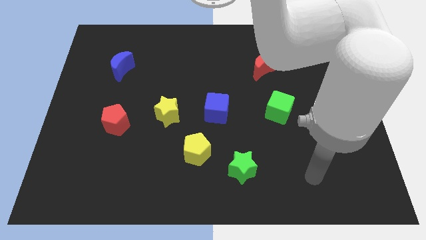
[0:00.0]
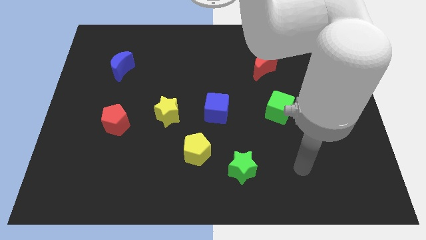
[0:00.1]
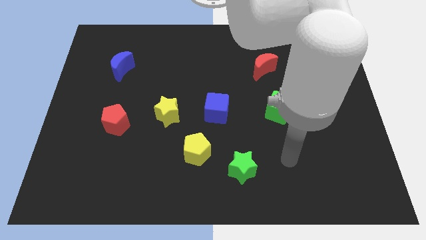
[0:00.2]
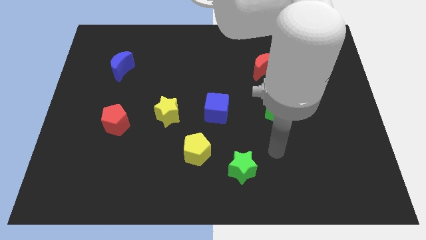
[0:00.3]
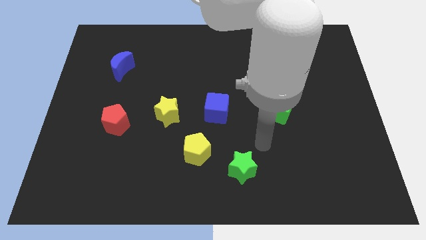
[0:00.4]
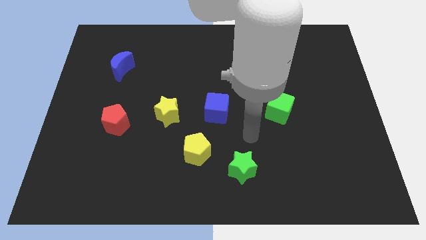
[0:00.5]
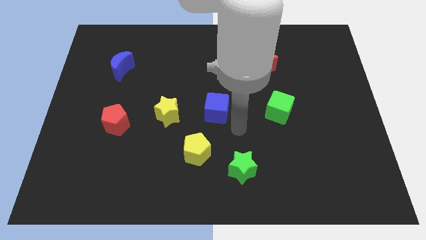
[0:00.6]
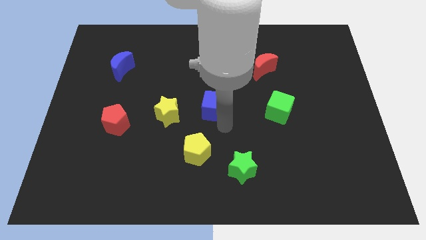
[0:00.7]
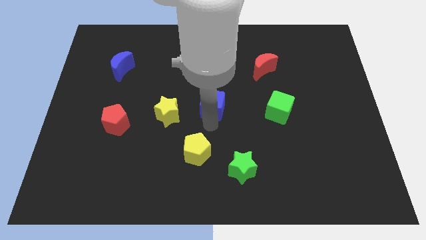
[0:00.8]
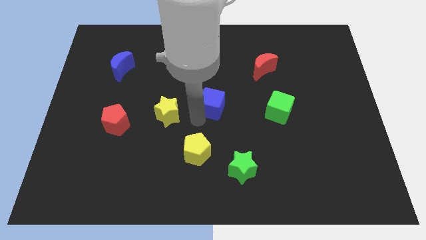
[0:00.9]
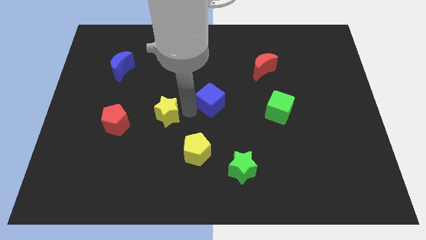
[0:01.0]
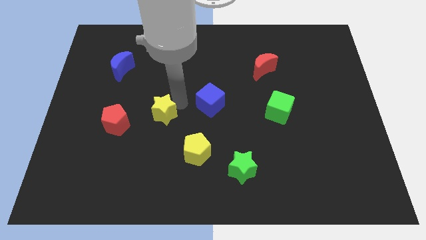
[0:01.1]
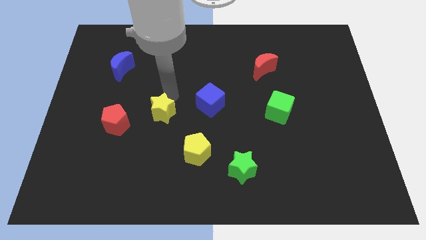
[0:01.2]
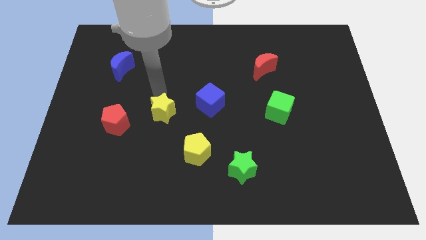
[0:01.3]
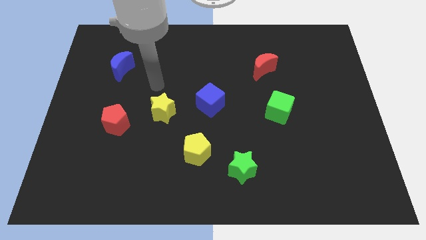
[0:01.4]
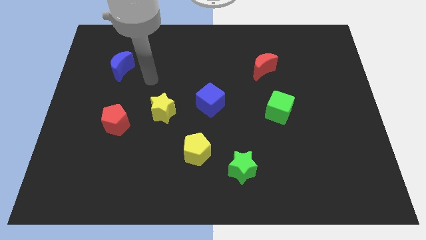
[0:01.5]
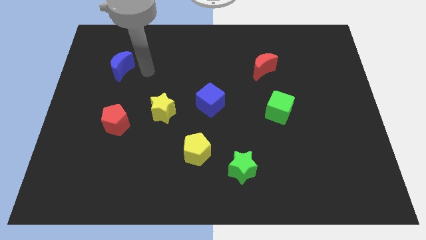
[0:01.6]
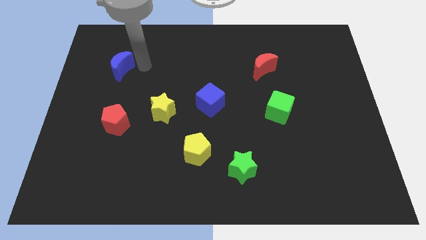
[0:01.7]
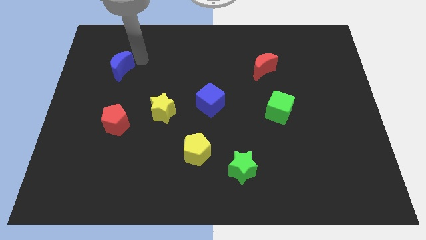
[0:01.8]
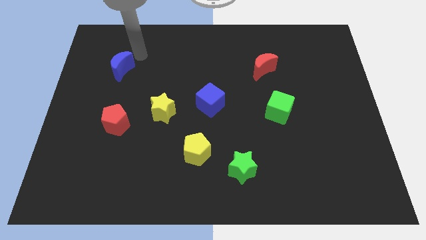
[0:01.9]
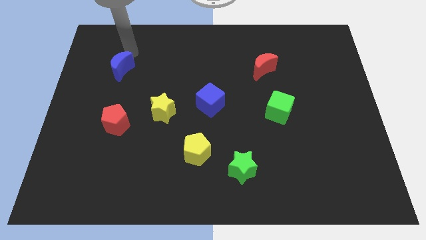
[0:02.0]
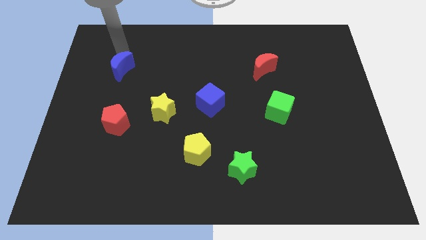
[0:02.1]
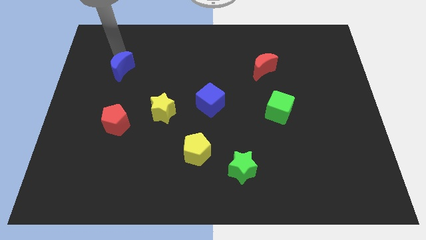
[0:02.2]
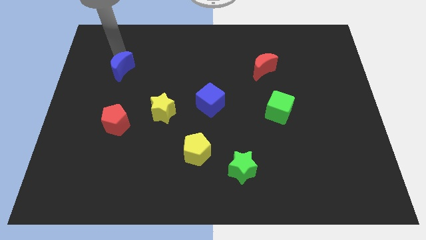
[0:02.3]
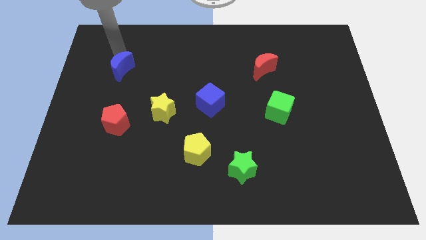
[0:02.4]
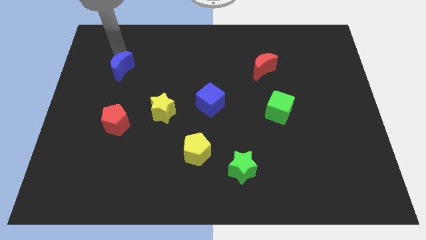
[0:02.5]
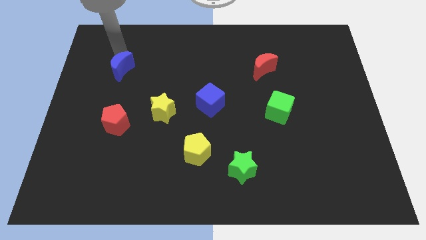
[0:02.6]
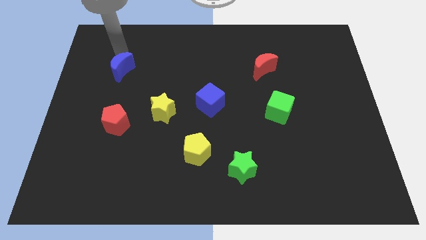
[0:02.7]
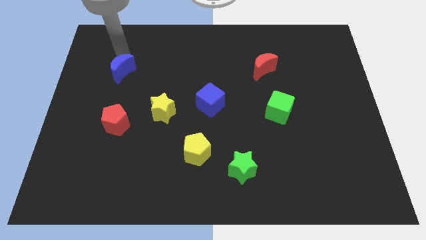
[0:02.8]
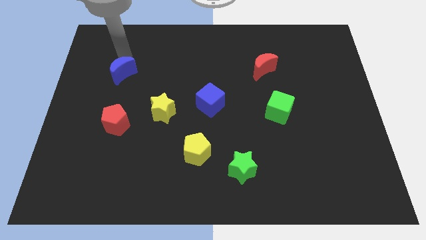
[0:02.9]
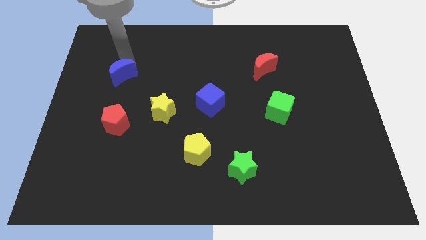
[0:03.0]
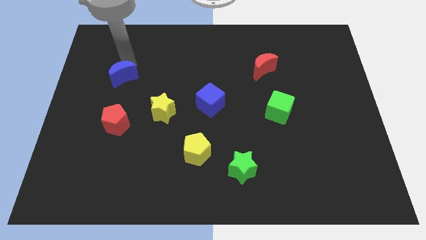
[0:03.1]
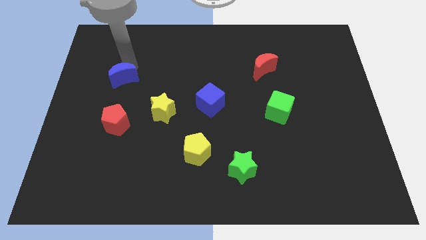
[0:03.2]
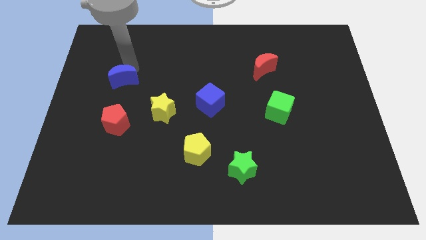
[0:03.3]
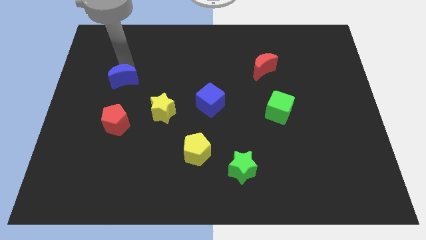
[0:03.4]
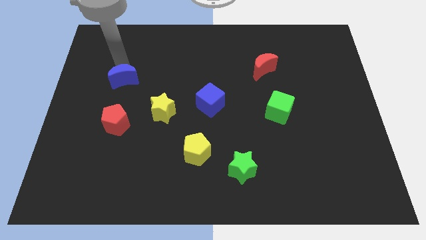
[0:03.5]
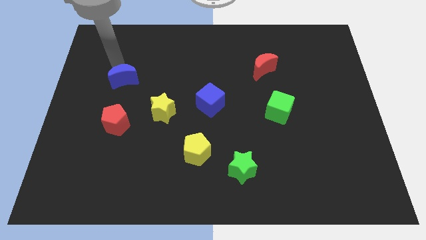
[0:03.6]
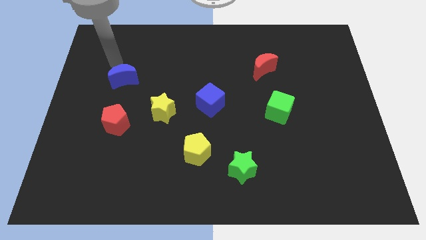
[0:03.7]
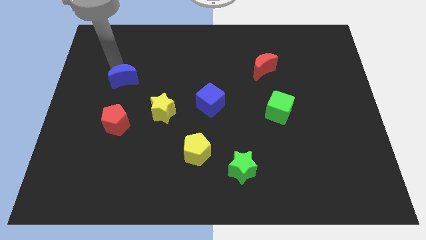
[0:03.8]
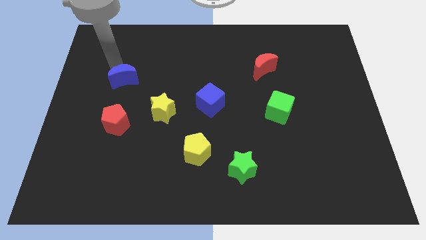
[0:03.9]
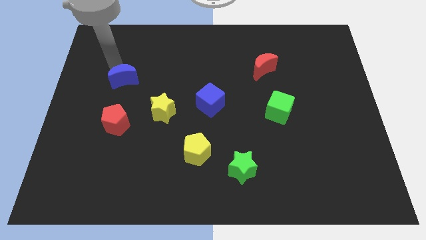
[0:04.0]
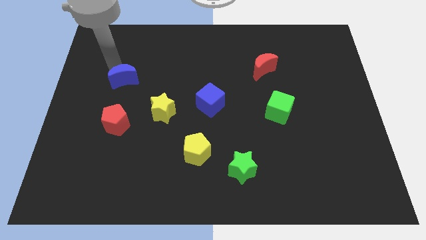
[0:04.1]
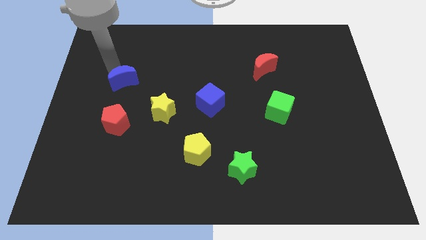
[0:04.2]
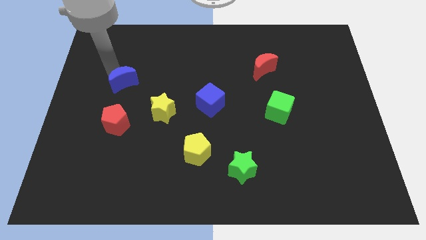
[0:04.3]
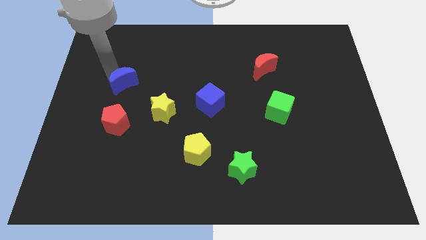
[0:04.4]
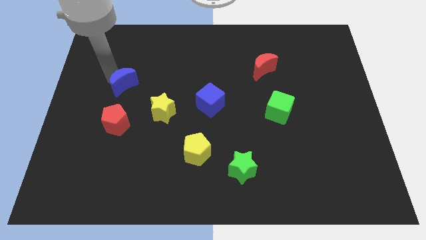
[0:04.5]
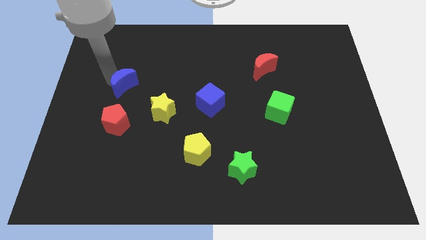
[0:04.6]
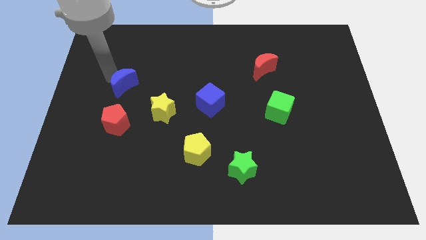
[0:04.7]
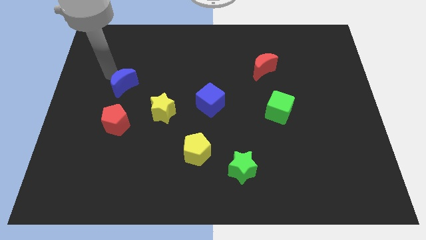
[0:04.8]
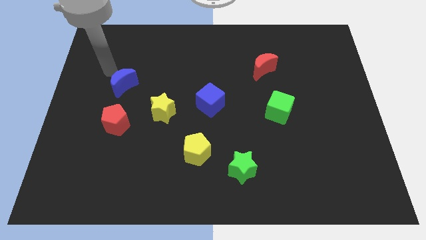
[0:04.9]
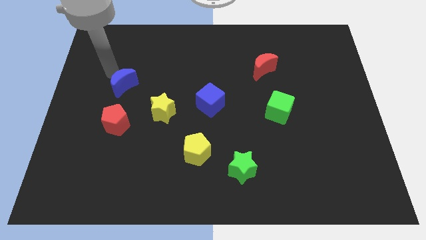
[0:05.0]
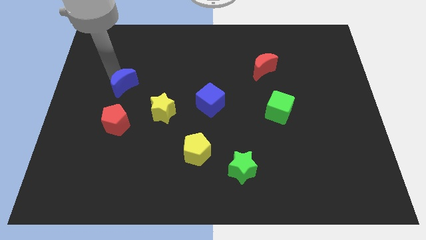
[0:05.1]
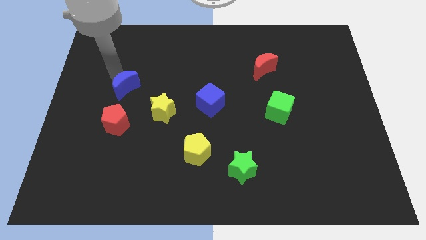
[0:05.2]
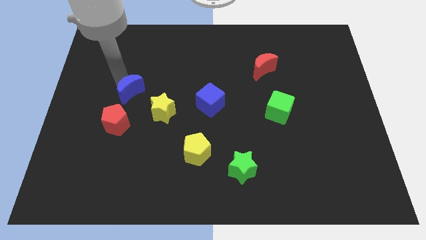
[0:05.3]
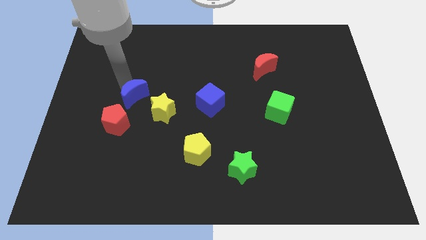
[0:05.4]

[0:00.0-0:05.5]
move the blue moon diagonally up and to the right of the red pentagon
